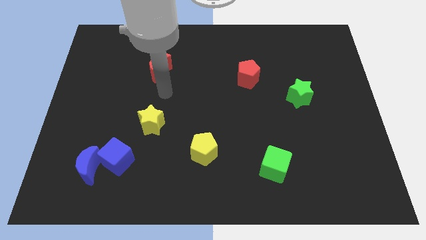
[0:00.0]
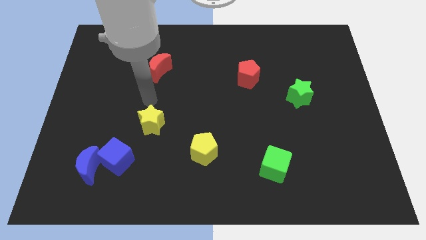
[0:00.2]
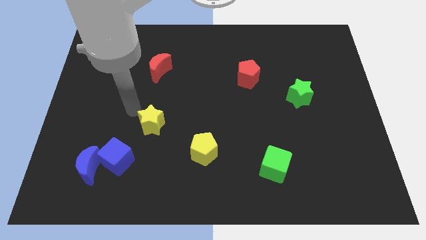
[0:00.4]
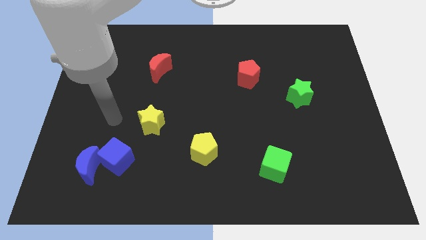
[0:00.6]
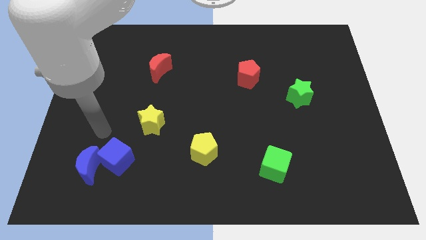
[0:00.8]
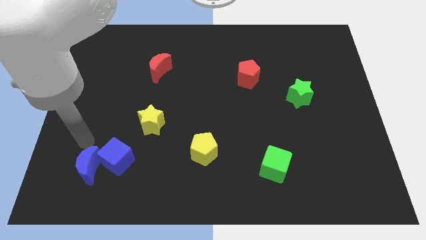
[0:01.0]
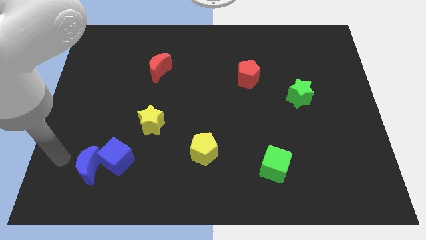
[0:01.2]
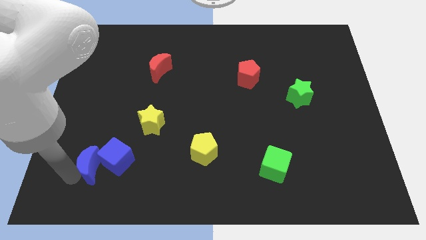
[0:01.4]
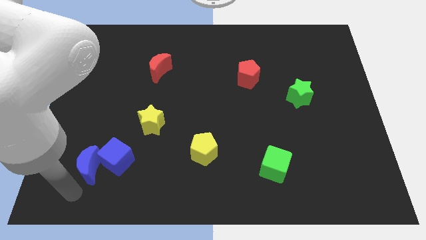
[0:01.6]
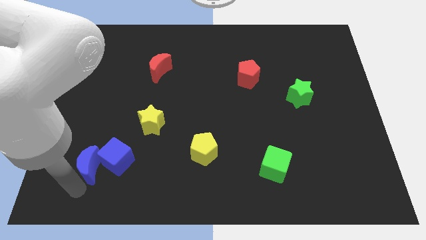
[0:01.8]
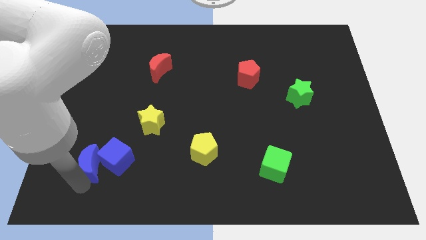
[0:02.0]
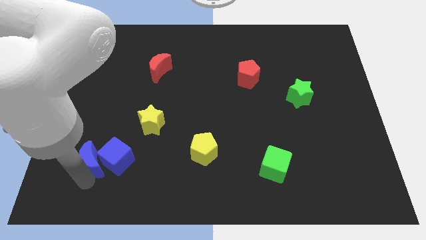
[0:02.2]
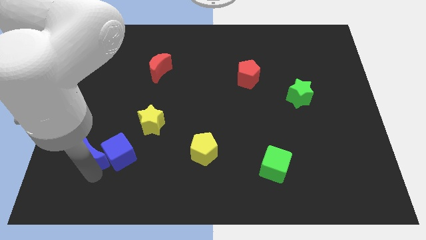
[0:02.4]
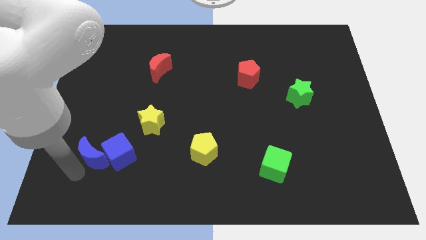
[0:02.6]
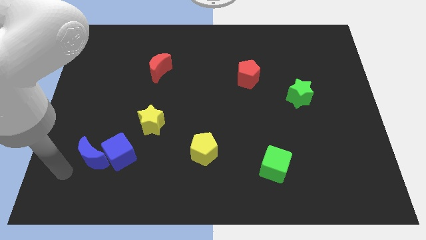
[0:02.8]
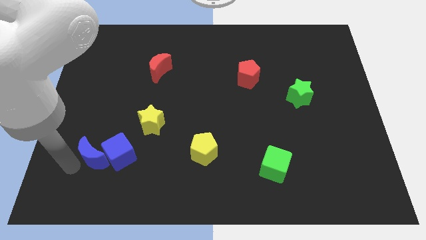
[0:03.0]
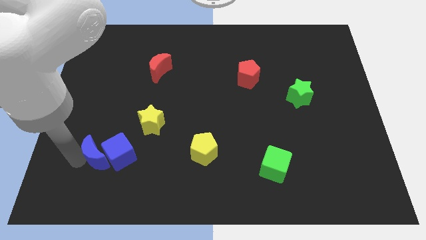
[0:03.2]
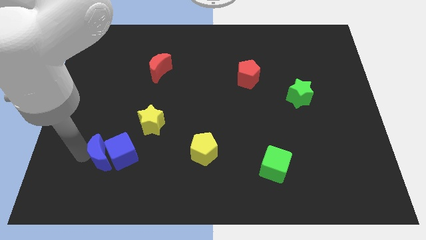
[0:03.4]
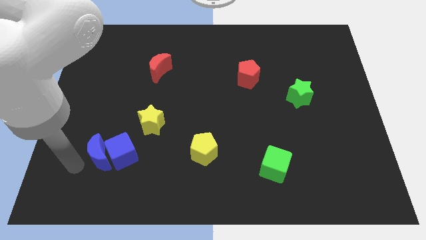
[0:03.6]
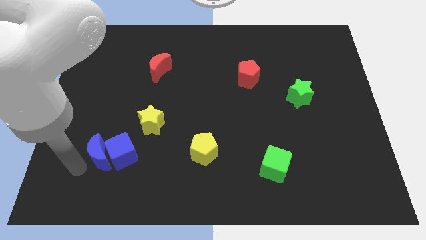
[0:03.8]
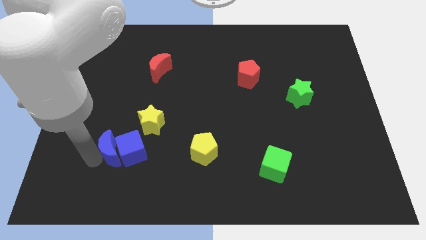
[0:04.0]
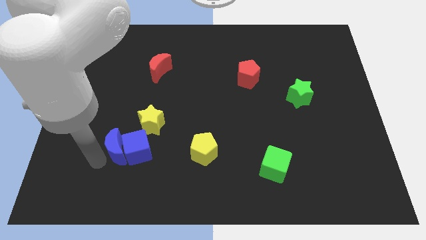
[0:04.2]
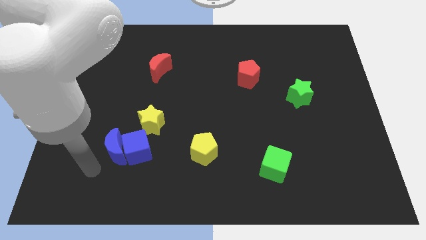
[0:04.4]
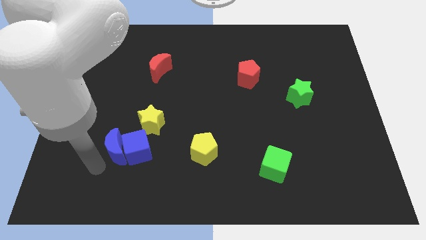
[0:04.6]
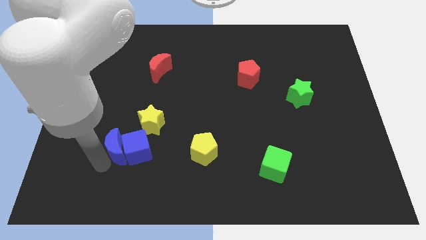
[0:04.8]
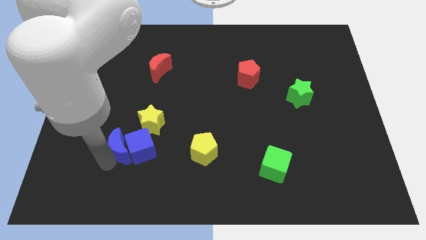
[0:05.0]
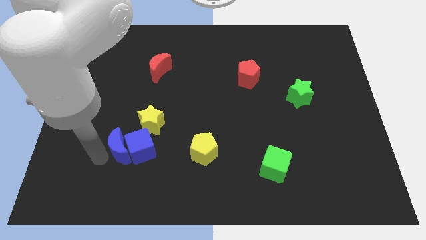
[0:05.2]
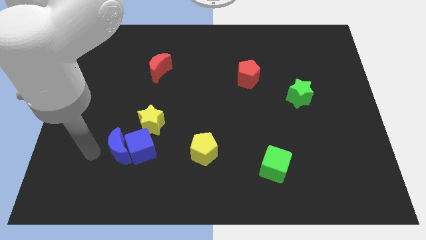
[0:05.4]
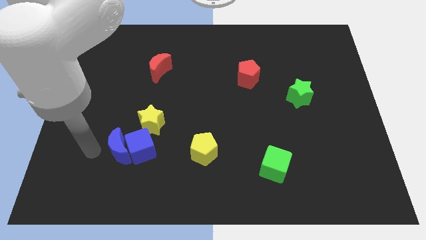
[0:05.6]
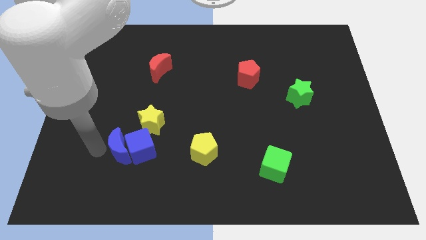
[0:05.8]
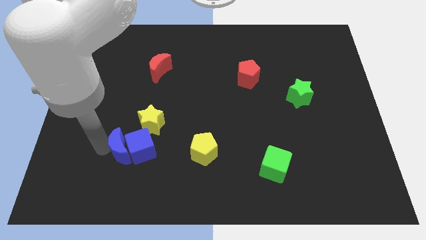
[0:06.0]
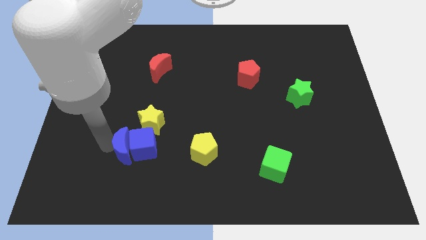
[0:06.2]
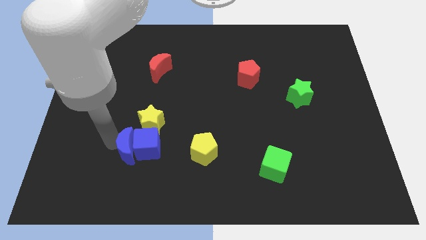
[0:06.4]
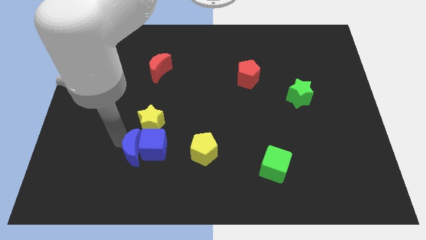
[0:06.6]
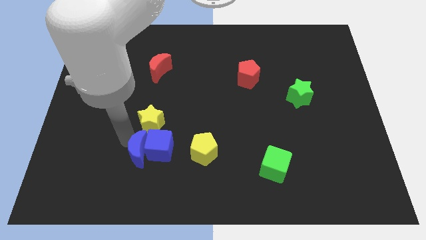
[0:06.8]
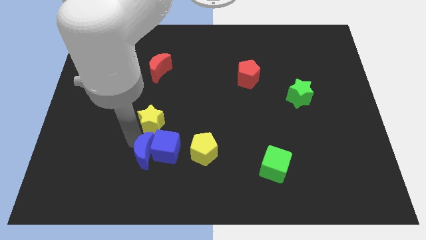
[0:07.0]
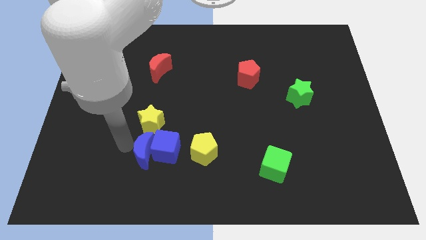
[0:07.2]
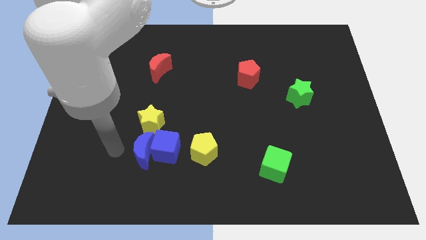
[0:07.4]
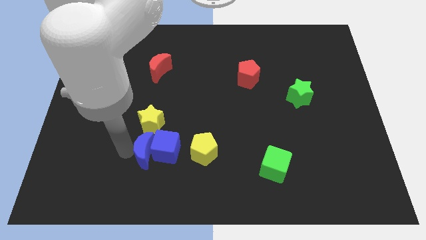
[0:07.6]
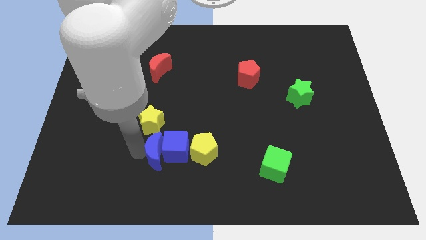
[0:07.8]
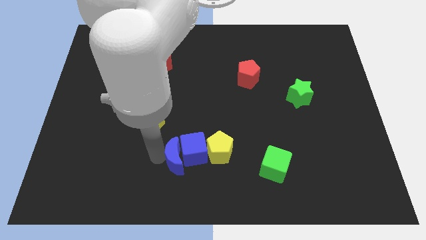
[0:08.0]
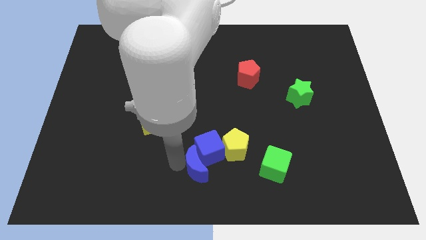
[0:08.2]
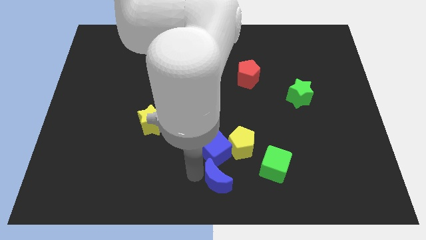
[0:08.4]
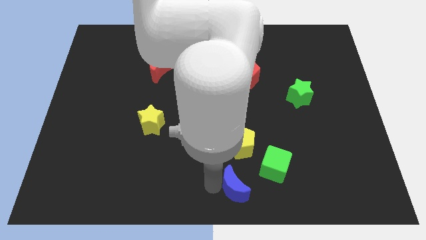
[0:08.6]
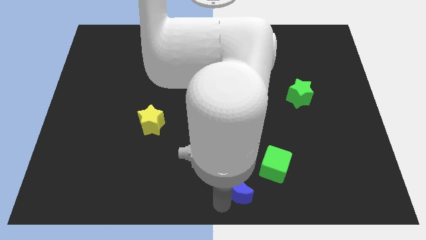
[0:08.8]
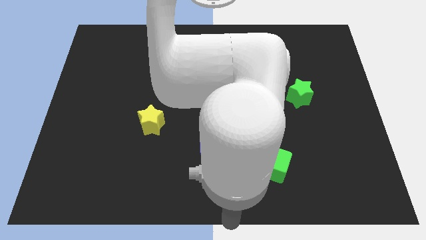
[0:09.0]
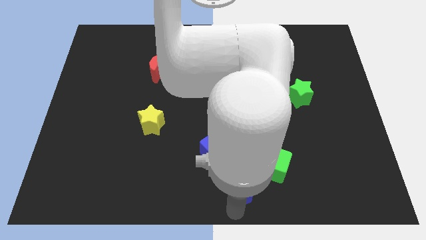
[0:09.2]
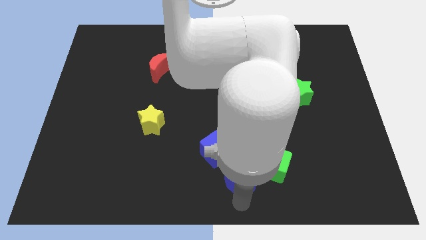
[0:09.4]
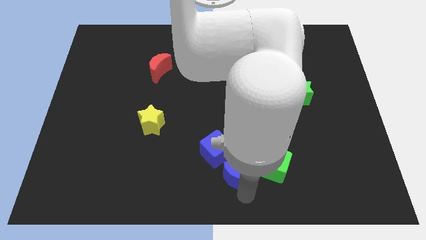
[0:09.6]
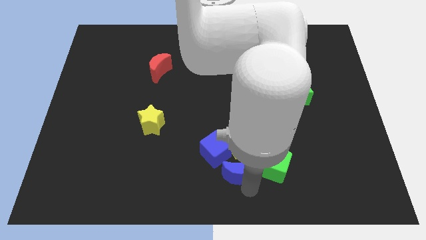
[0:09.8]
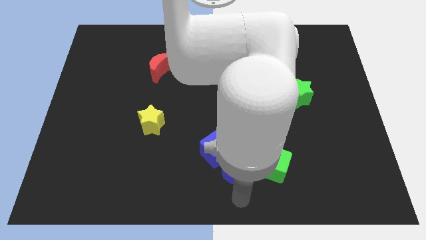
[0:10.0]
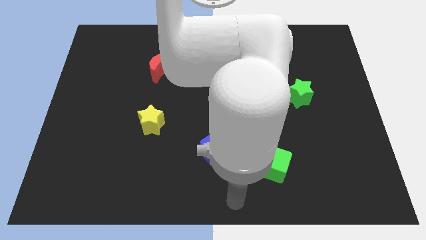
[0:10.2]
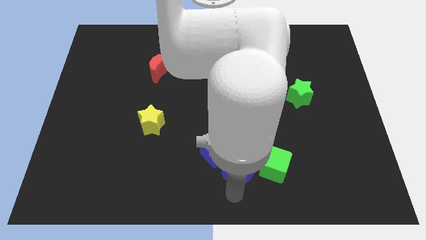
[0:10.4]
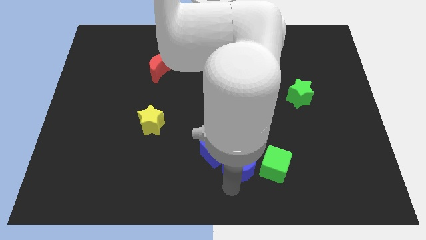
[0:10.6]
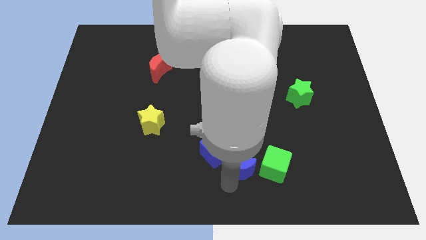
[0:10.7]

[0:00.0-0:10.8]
put the blue moon towards the yellow pentagon

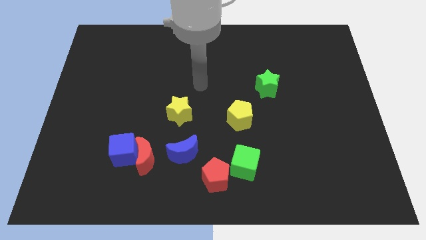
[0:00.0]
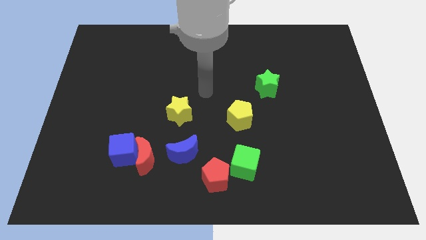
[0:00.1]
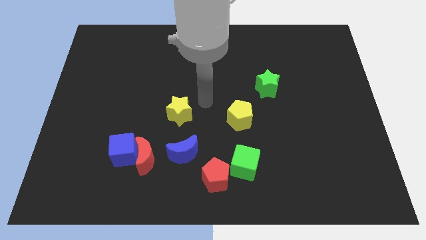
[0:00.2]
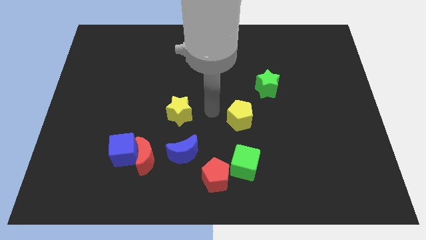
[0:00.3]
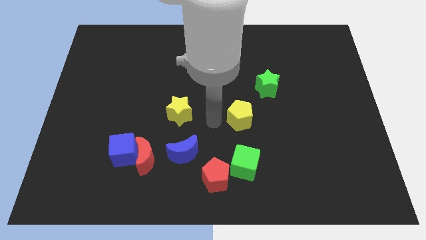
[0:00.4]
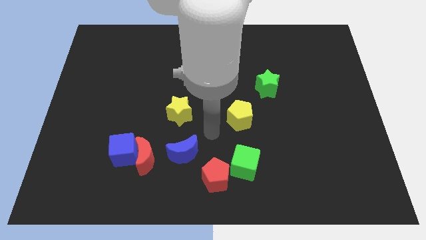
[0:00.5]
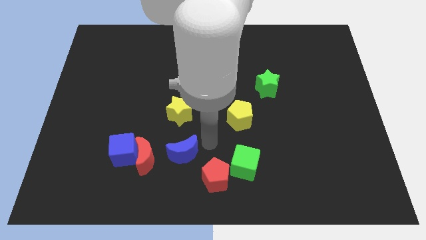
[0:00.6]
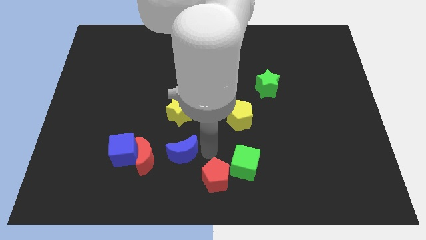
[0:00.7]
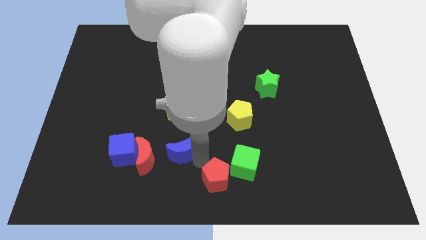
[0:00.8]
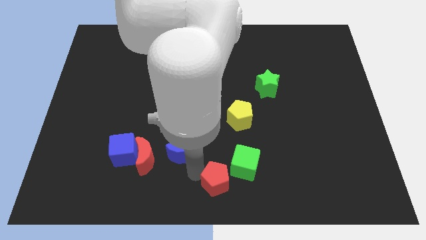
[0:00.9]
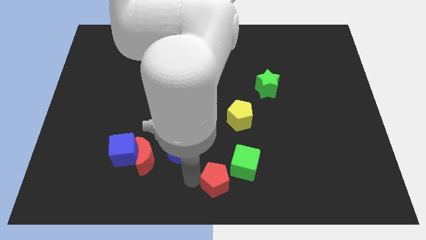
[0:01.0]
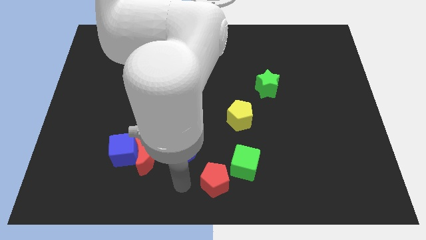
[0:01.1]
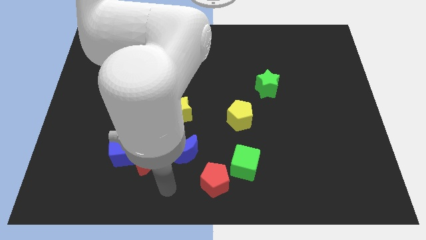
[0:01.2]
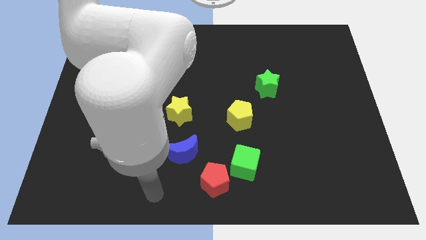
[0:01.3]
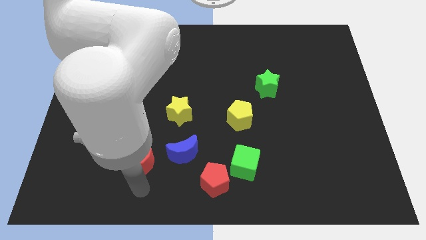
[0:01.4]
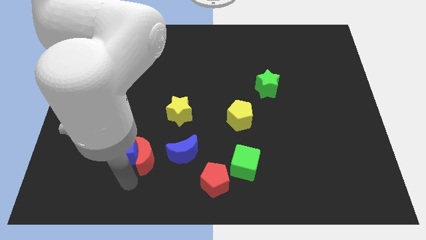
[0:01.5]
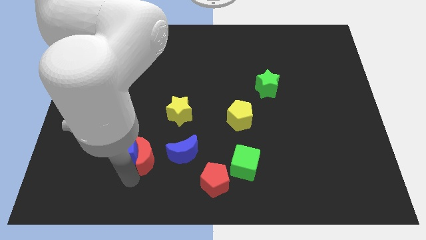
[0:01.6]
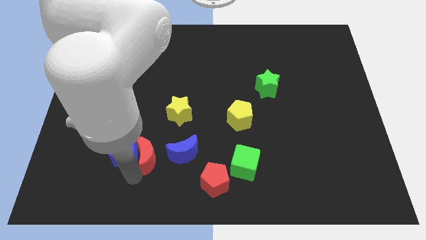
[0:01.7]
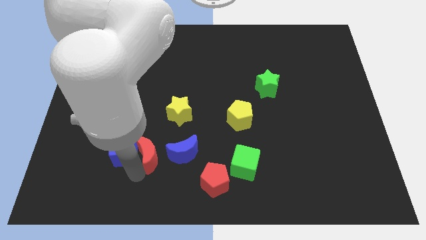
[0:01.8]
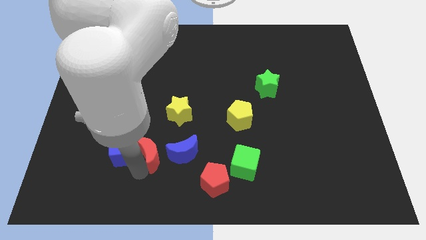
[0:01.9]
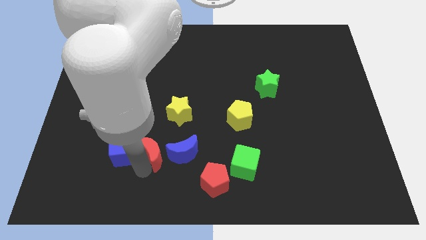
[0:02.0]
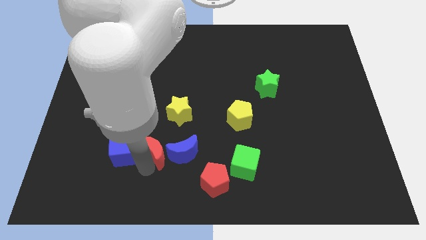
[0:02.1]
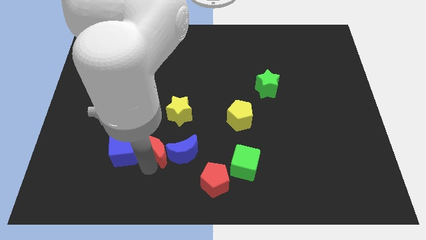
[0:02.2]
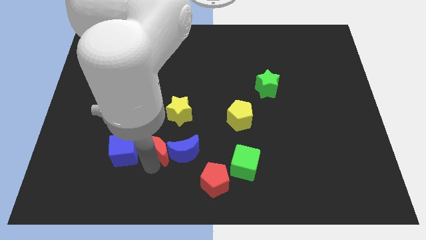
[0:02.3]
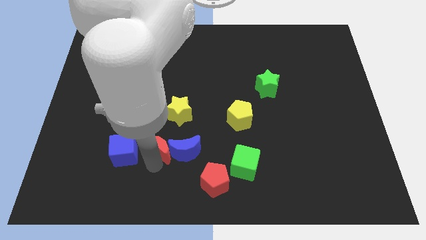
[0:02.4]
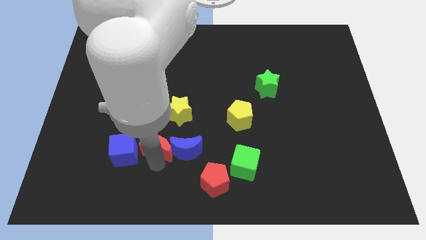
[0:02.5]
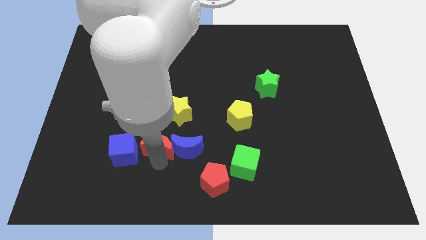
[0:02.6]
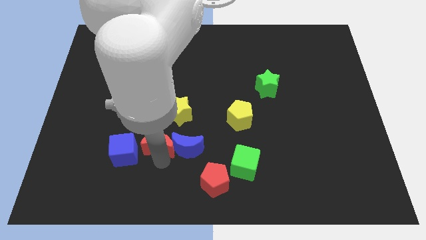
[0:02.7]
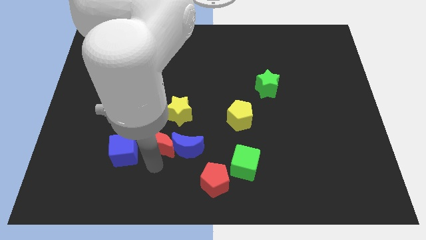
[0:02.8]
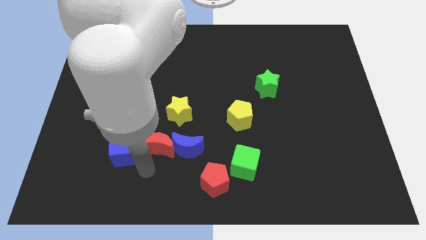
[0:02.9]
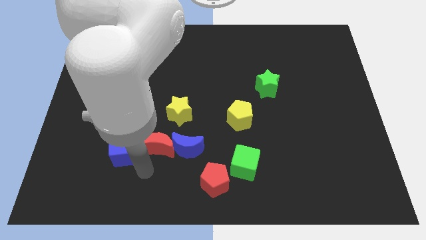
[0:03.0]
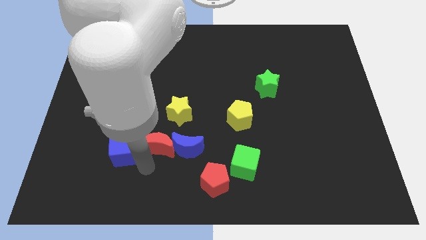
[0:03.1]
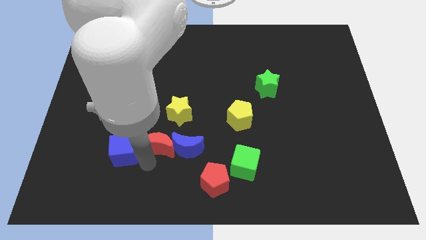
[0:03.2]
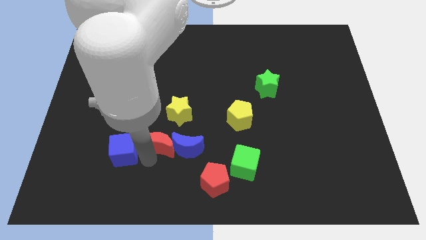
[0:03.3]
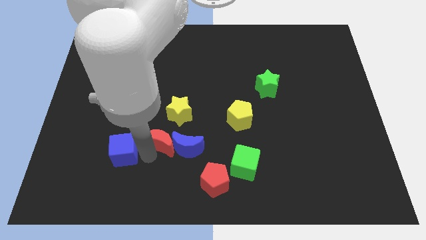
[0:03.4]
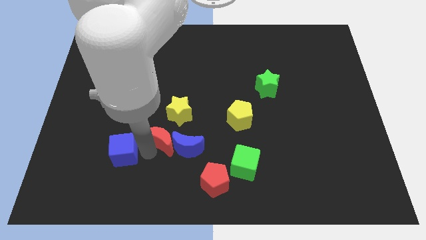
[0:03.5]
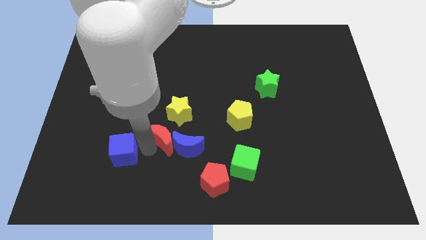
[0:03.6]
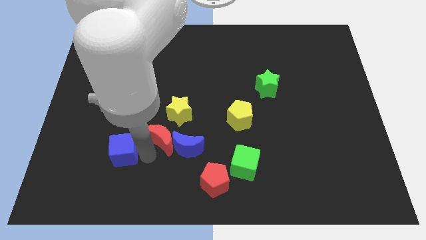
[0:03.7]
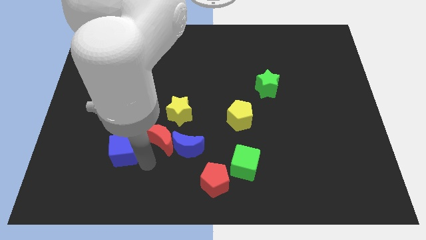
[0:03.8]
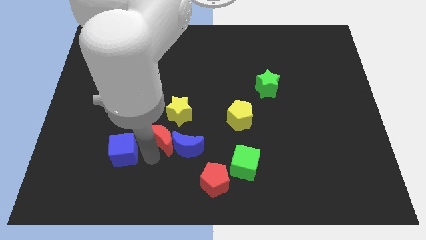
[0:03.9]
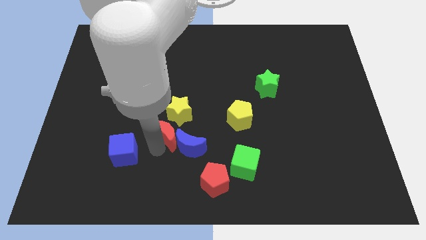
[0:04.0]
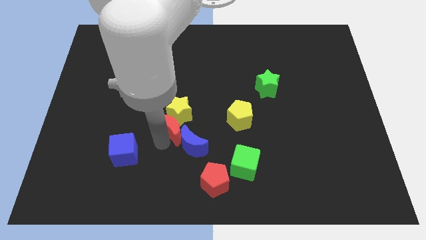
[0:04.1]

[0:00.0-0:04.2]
slide the red moon to the yellow star
